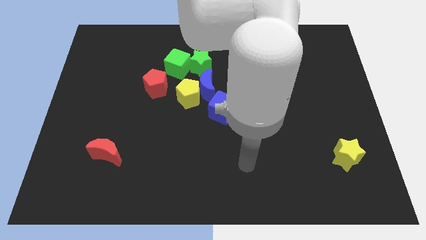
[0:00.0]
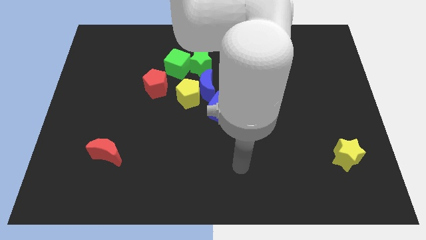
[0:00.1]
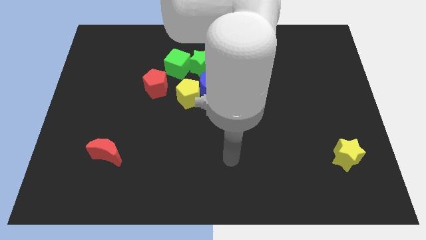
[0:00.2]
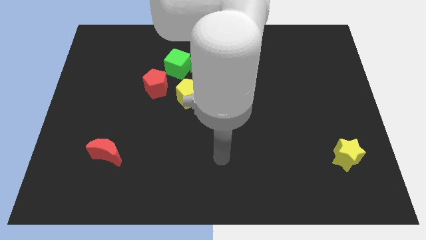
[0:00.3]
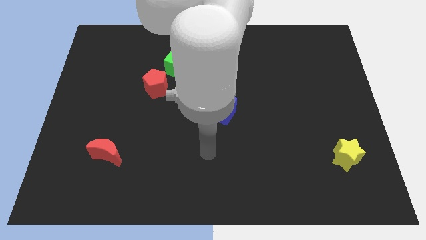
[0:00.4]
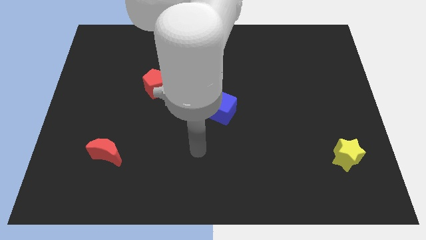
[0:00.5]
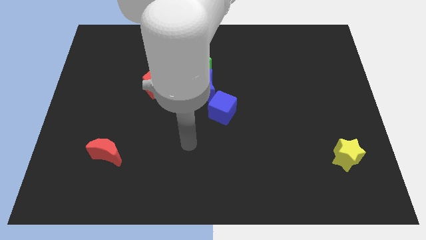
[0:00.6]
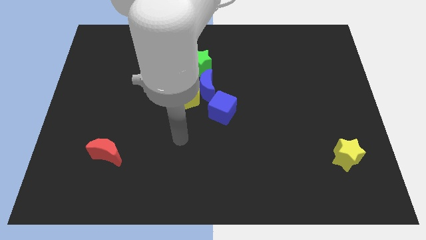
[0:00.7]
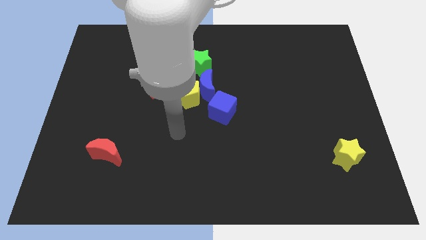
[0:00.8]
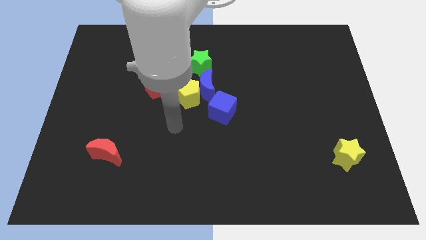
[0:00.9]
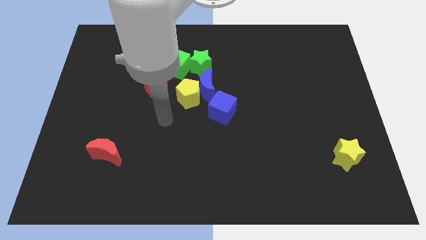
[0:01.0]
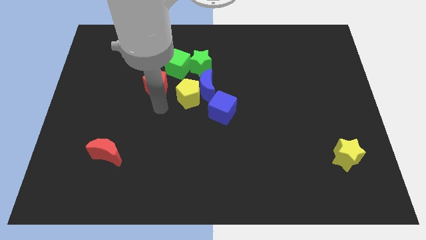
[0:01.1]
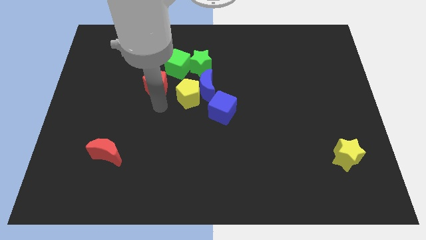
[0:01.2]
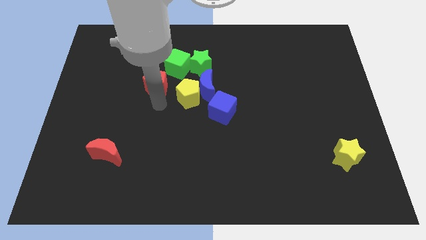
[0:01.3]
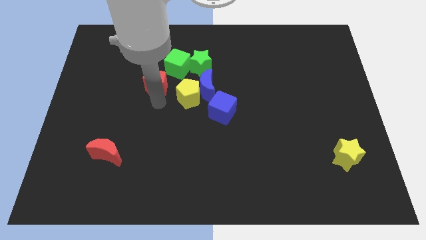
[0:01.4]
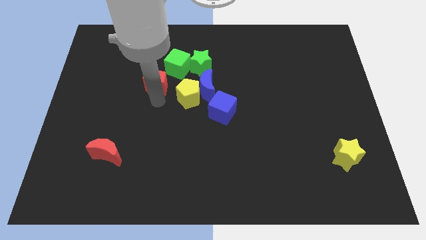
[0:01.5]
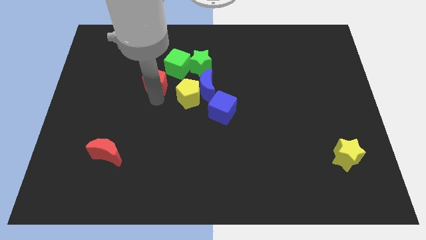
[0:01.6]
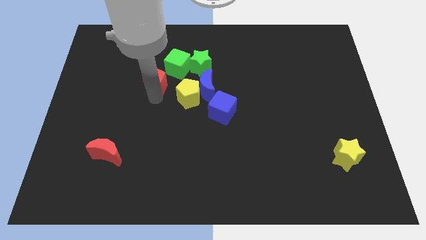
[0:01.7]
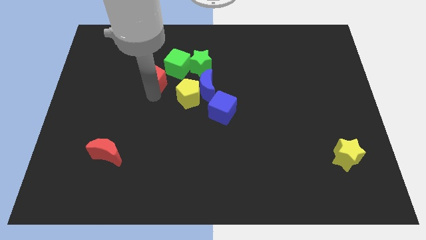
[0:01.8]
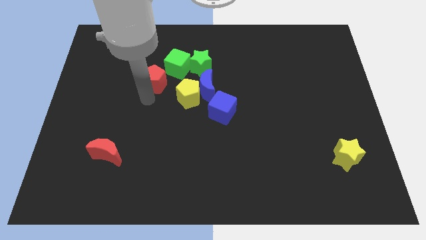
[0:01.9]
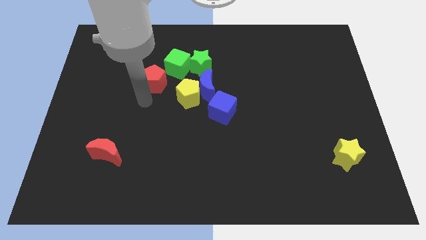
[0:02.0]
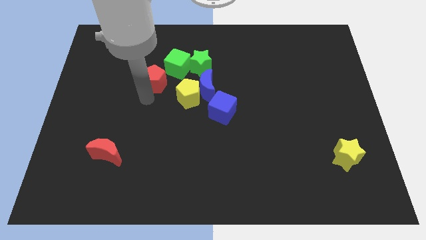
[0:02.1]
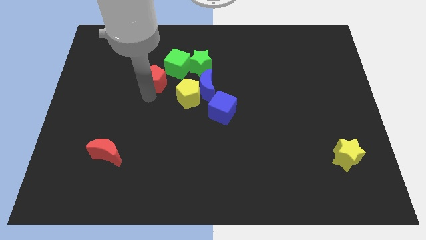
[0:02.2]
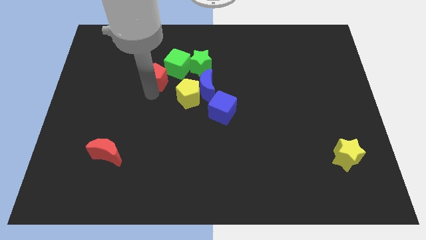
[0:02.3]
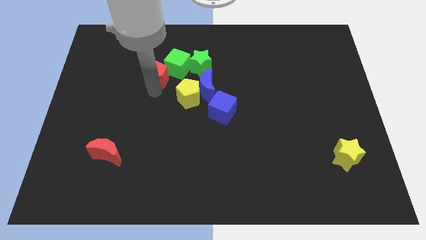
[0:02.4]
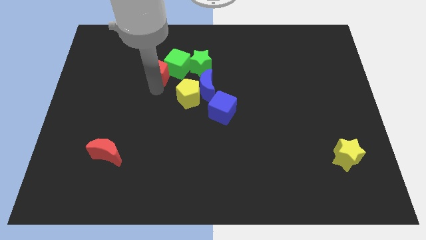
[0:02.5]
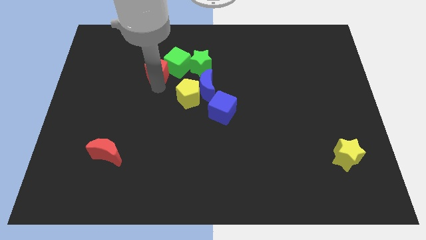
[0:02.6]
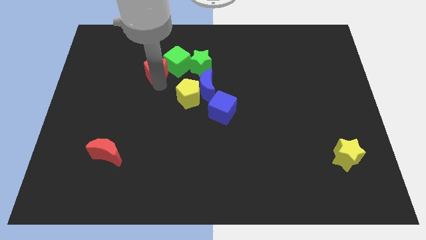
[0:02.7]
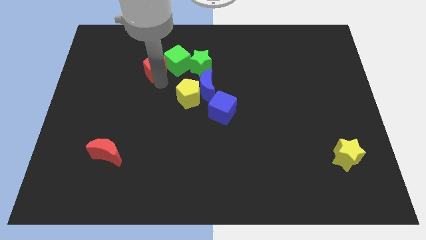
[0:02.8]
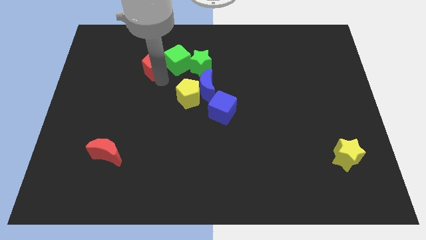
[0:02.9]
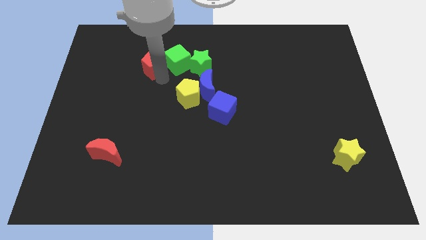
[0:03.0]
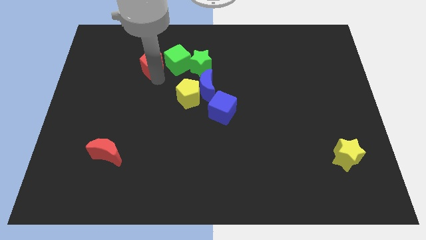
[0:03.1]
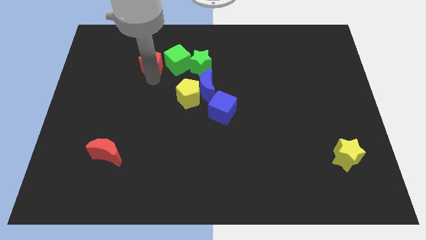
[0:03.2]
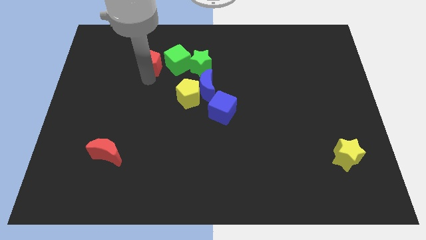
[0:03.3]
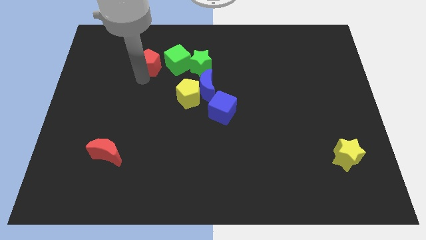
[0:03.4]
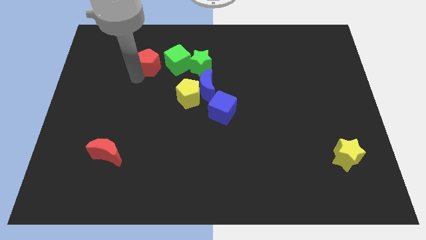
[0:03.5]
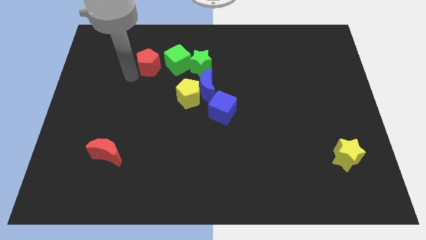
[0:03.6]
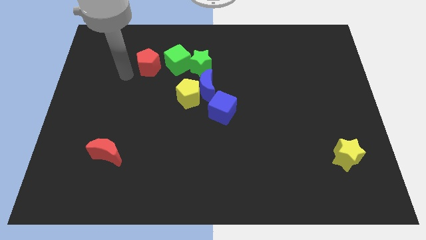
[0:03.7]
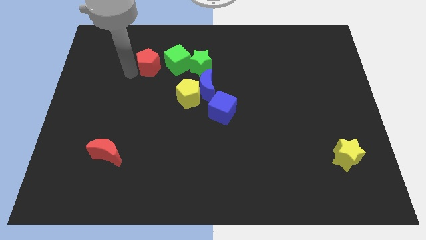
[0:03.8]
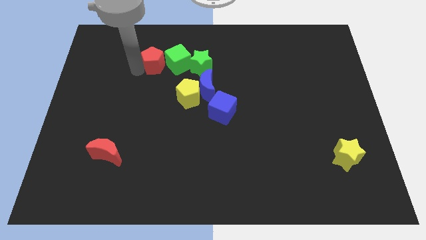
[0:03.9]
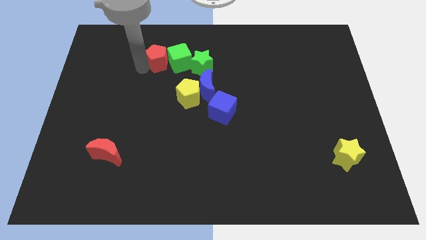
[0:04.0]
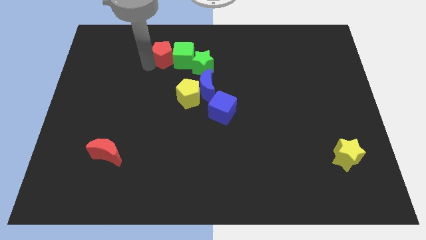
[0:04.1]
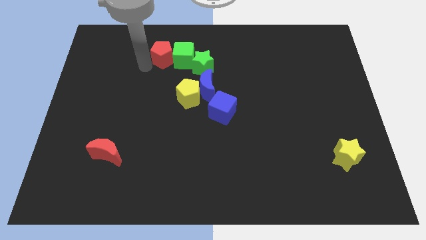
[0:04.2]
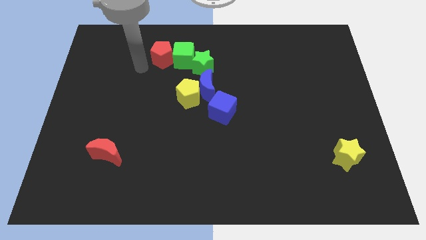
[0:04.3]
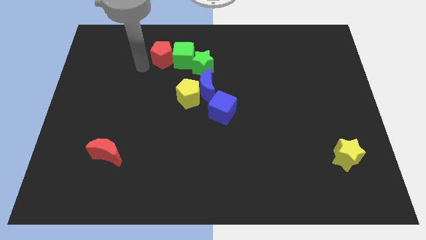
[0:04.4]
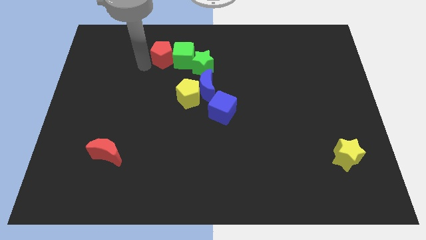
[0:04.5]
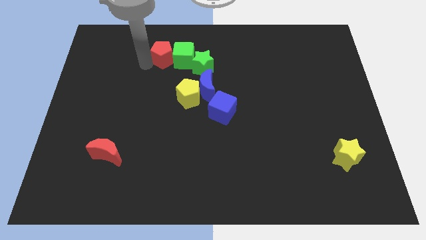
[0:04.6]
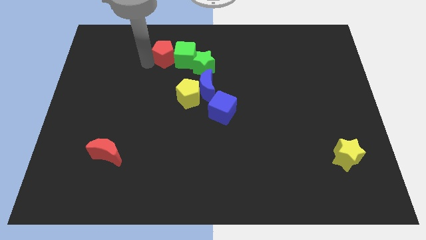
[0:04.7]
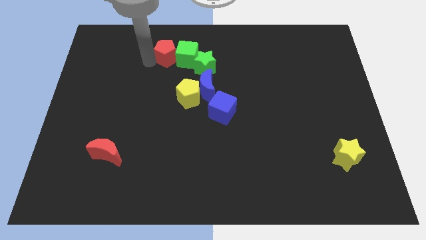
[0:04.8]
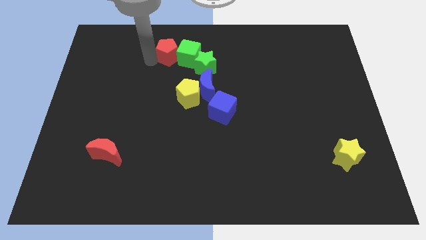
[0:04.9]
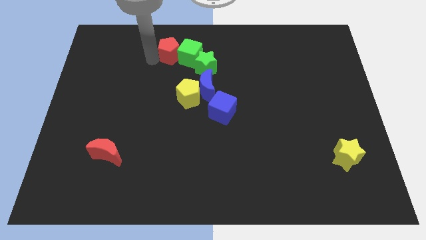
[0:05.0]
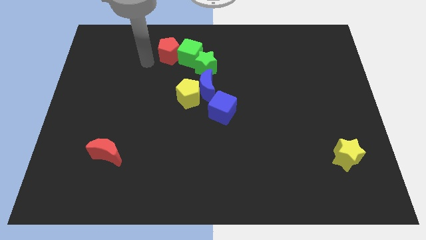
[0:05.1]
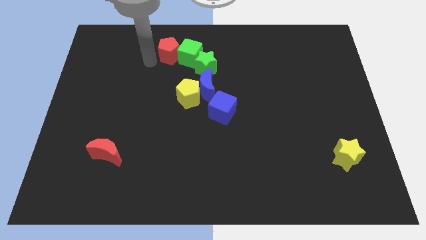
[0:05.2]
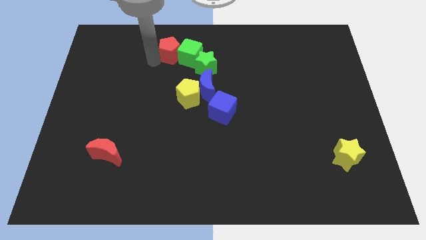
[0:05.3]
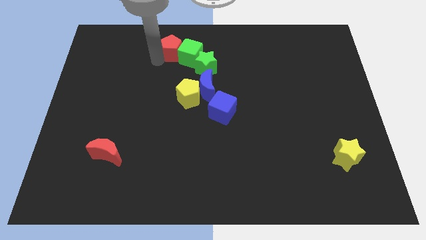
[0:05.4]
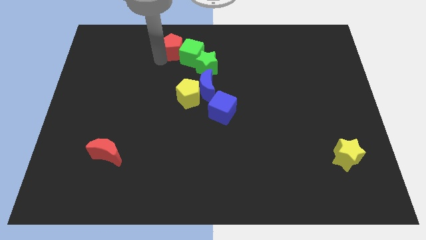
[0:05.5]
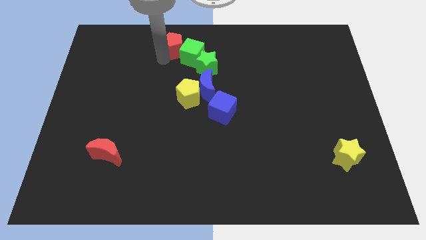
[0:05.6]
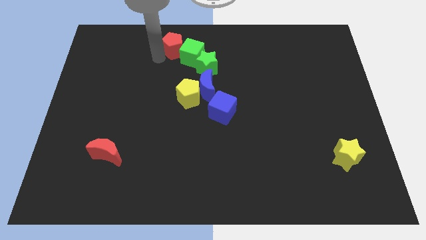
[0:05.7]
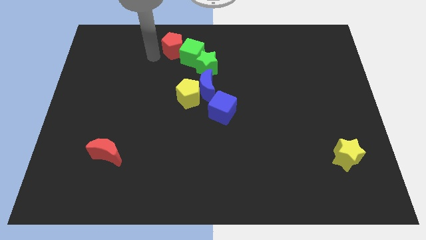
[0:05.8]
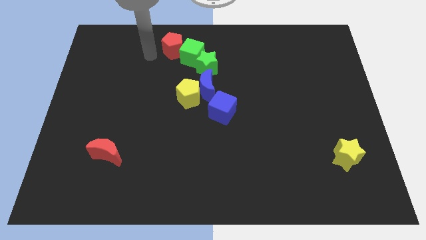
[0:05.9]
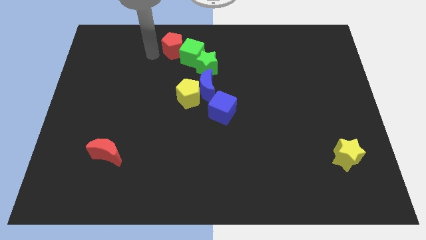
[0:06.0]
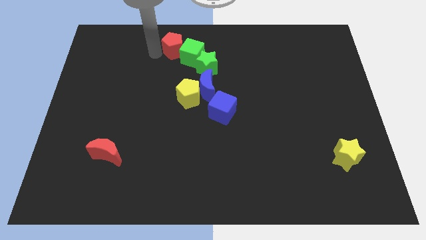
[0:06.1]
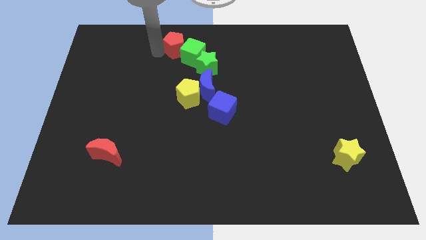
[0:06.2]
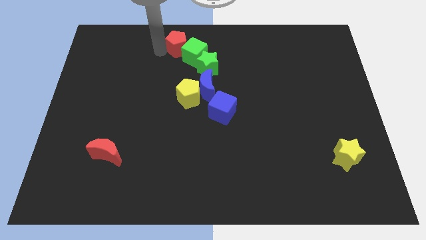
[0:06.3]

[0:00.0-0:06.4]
put the red pentagon to the towards your base

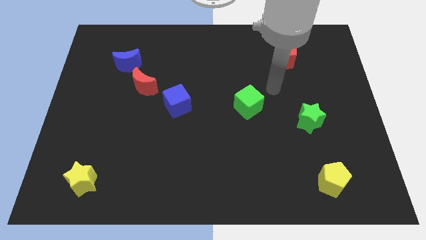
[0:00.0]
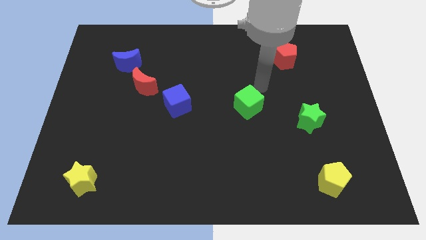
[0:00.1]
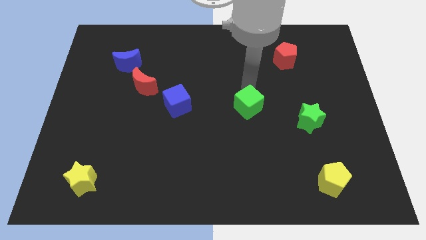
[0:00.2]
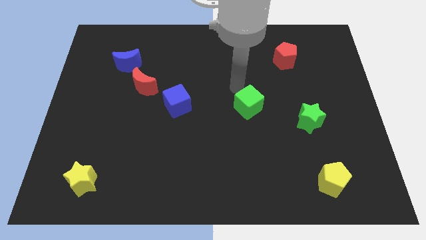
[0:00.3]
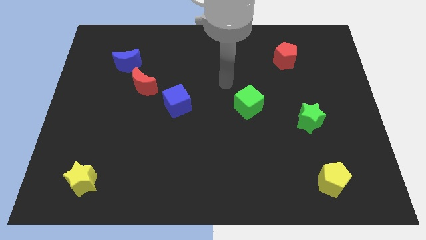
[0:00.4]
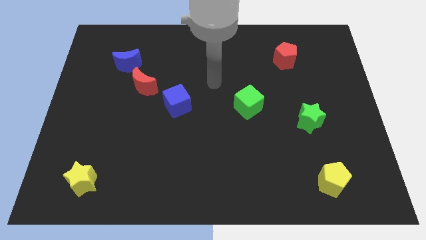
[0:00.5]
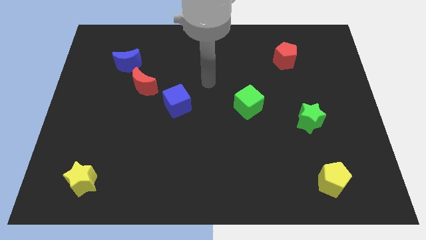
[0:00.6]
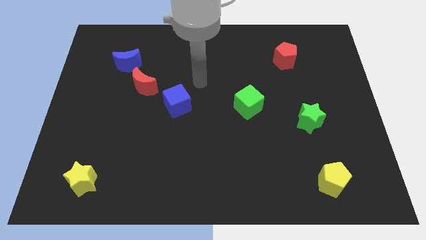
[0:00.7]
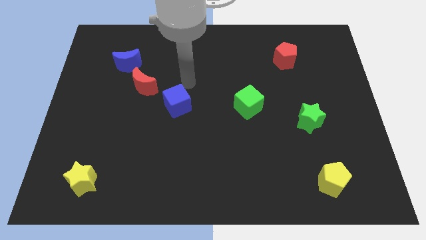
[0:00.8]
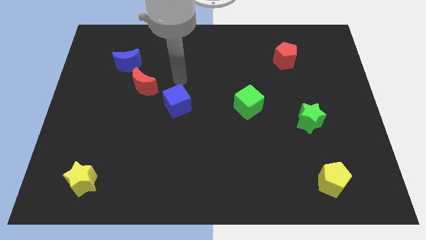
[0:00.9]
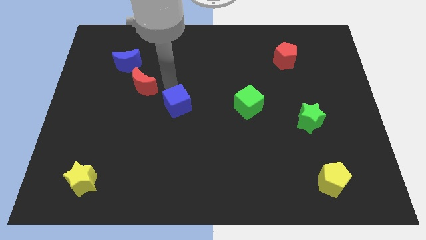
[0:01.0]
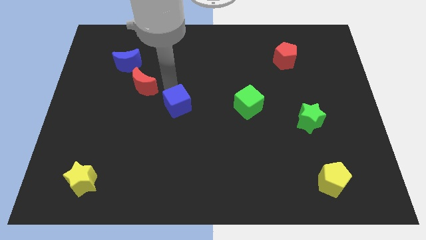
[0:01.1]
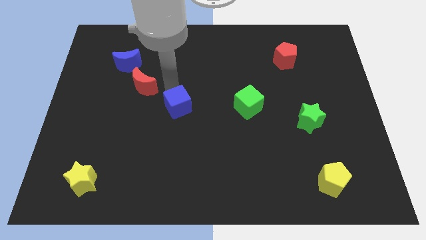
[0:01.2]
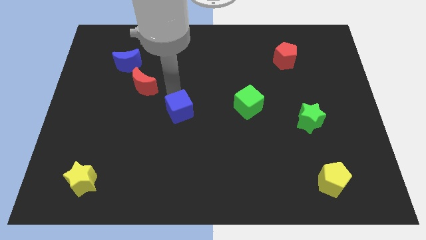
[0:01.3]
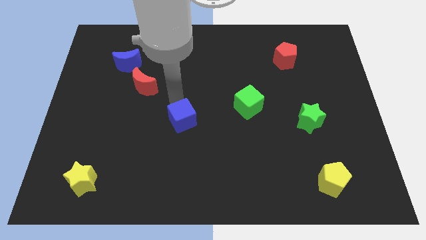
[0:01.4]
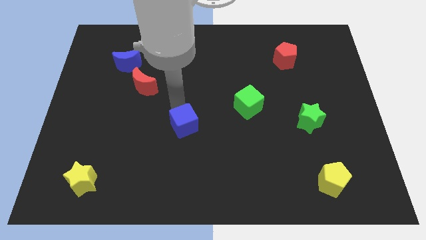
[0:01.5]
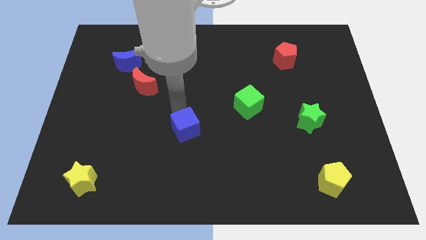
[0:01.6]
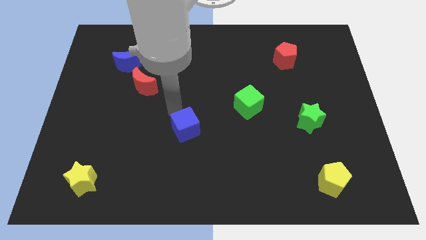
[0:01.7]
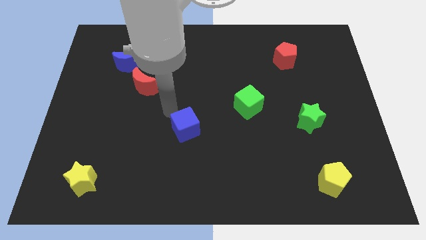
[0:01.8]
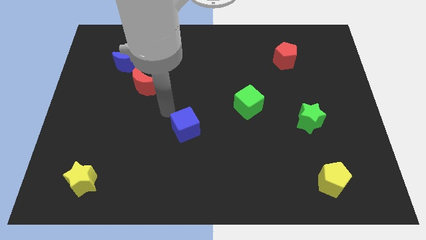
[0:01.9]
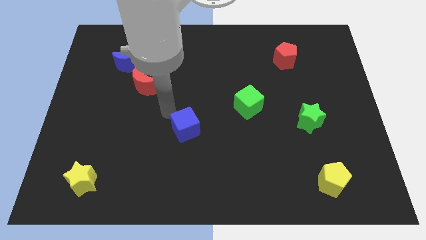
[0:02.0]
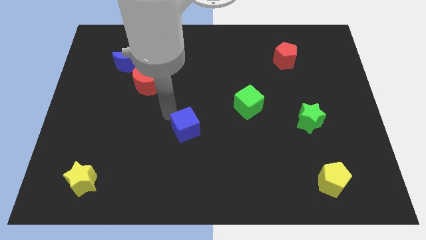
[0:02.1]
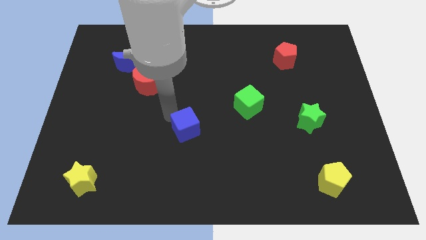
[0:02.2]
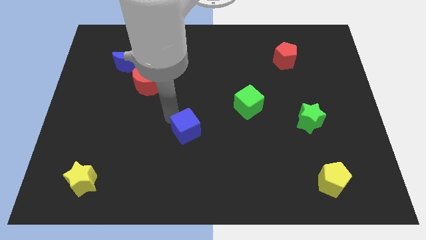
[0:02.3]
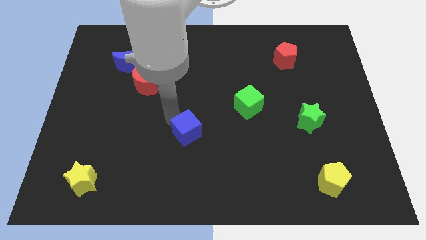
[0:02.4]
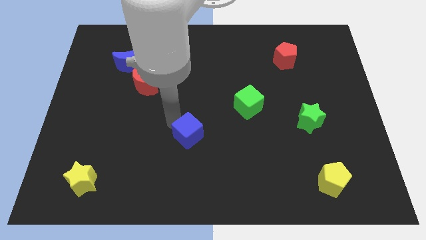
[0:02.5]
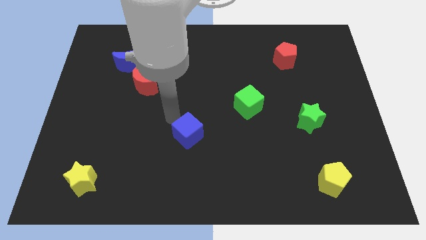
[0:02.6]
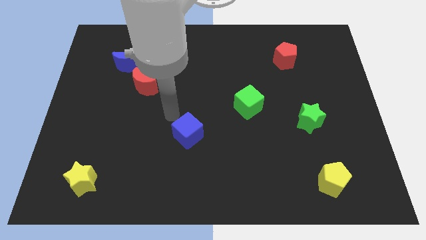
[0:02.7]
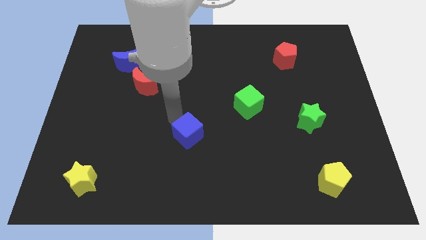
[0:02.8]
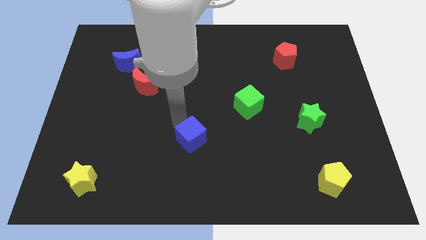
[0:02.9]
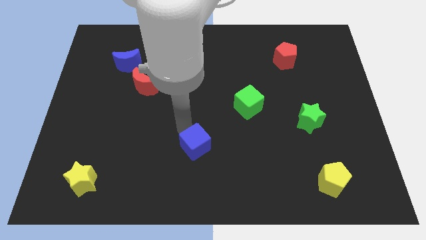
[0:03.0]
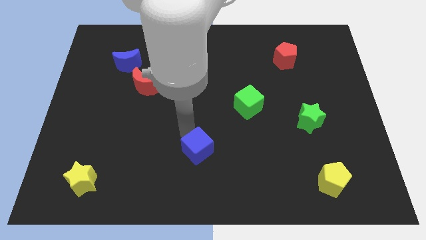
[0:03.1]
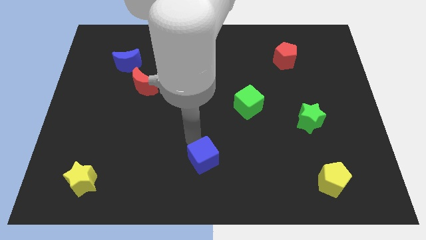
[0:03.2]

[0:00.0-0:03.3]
push the blue cube to the bottom
